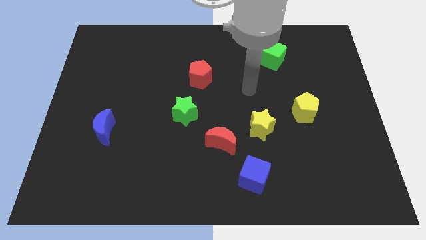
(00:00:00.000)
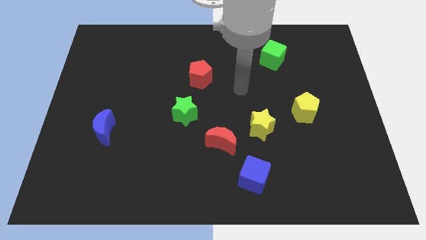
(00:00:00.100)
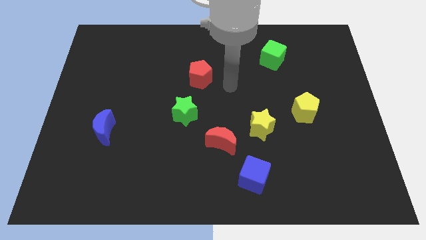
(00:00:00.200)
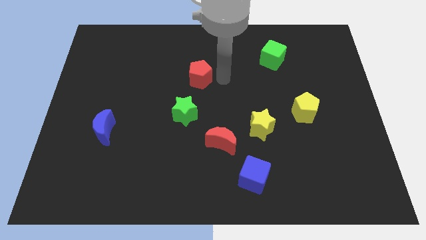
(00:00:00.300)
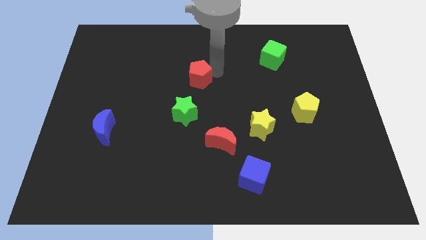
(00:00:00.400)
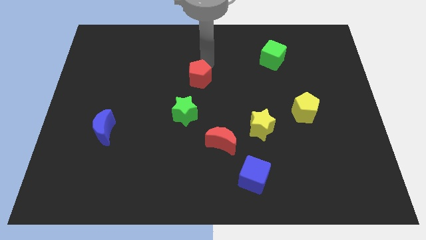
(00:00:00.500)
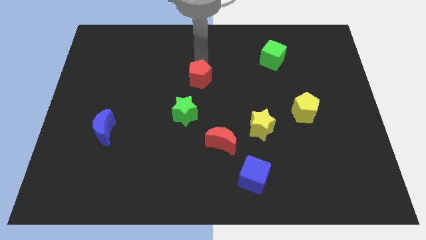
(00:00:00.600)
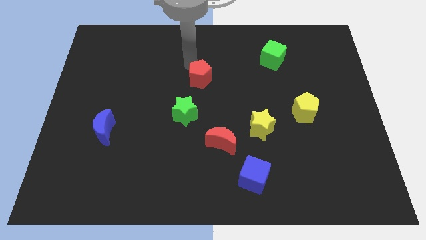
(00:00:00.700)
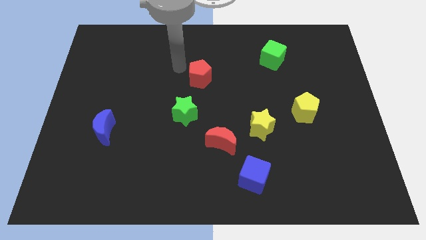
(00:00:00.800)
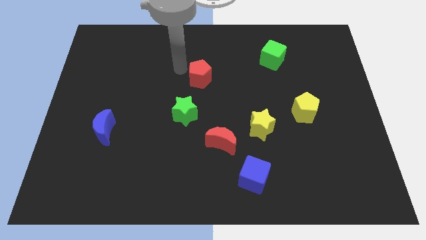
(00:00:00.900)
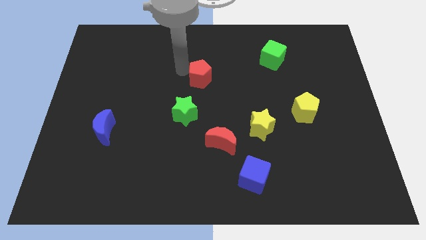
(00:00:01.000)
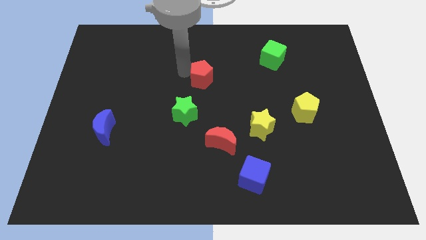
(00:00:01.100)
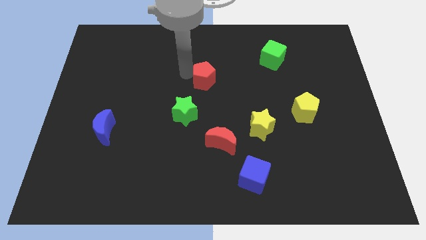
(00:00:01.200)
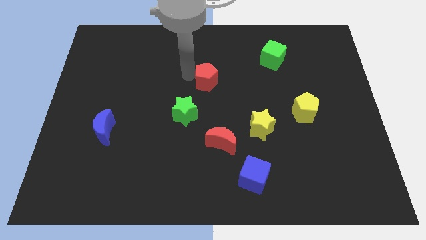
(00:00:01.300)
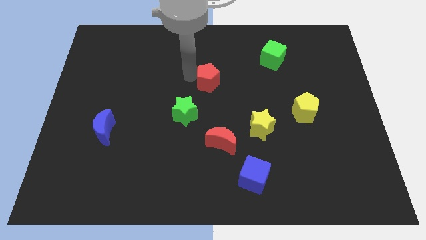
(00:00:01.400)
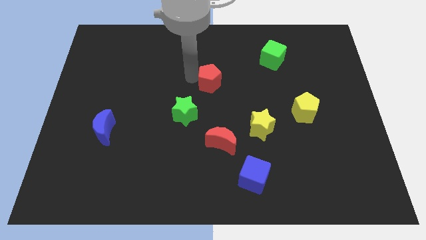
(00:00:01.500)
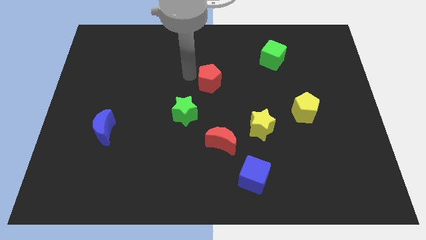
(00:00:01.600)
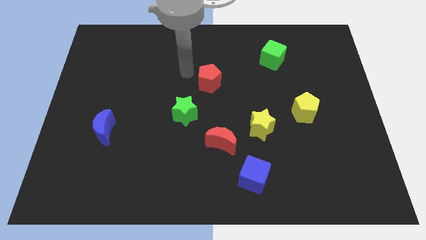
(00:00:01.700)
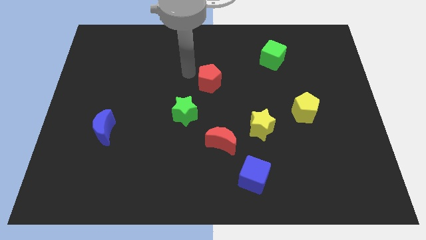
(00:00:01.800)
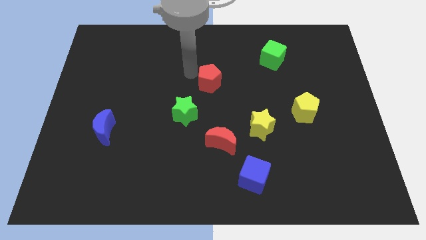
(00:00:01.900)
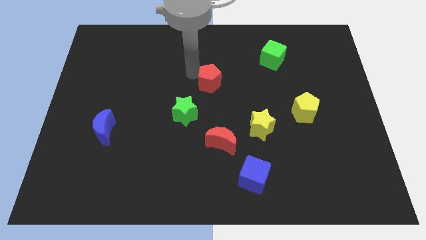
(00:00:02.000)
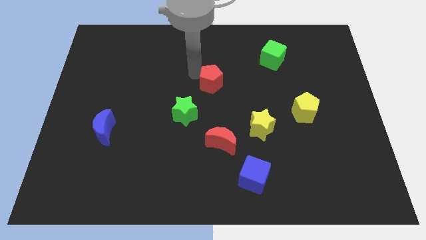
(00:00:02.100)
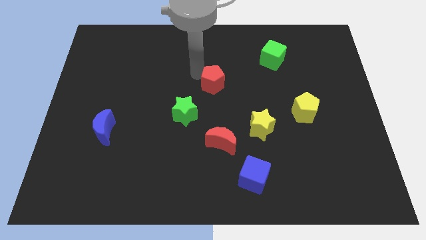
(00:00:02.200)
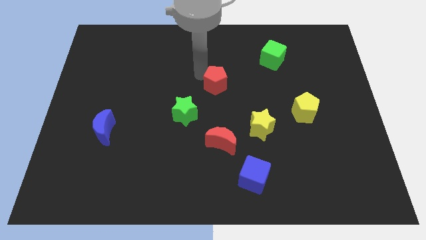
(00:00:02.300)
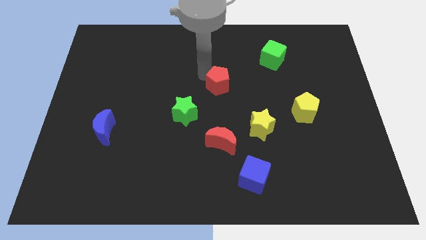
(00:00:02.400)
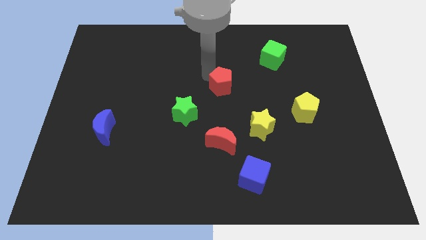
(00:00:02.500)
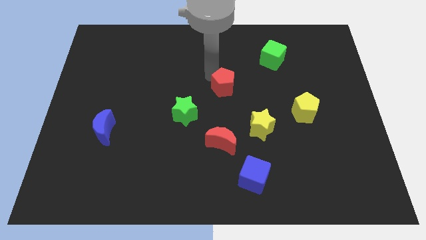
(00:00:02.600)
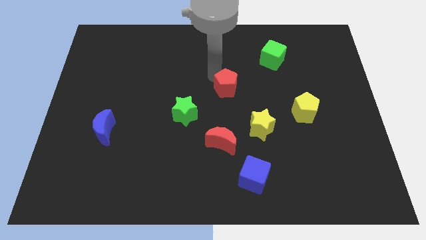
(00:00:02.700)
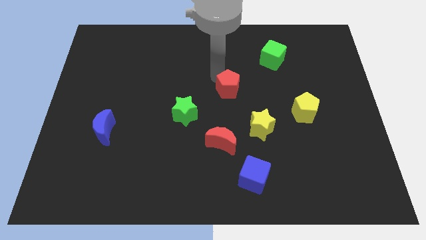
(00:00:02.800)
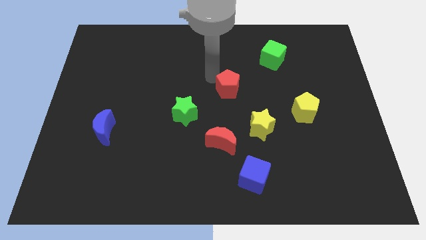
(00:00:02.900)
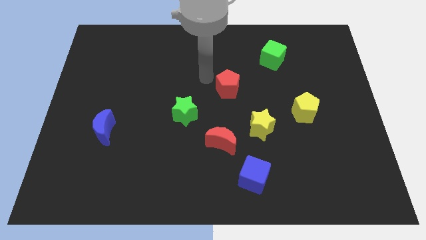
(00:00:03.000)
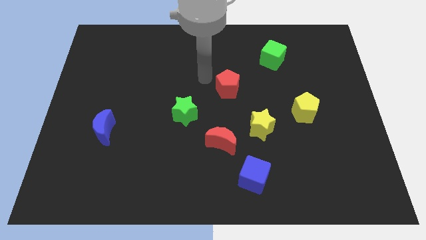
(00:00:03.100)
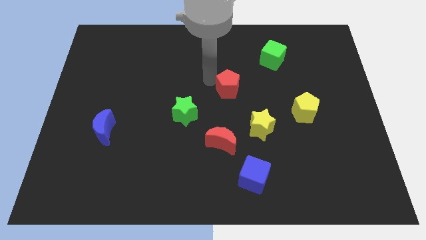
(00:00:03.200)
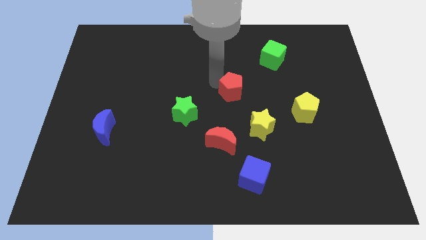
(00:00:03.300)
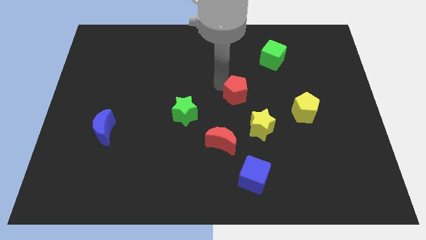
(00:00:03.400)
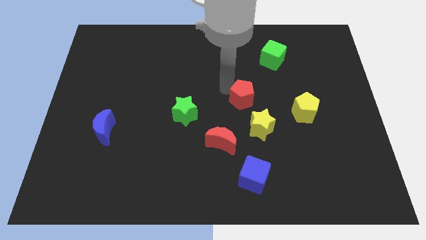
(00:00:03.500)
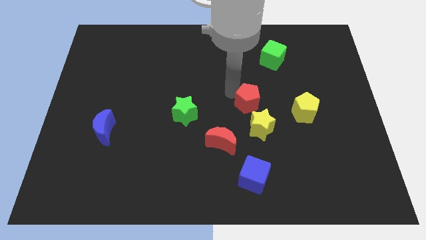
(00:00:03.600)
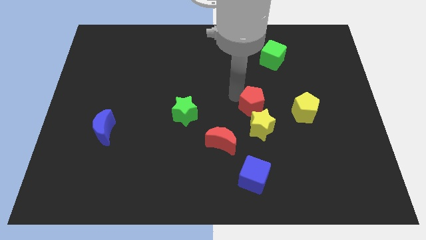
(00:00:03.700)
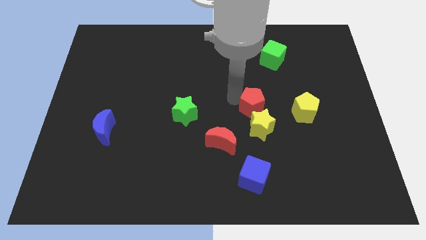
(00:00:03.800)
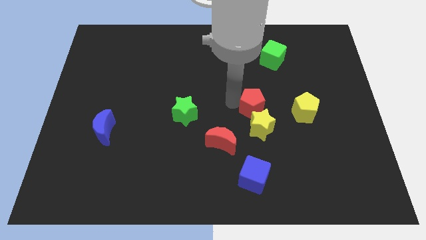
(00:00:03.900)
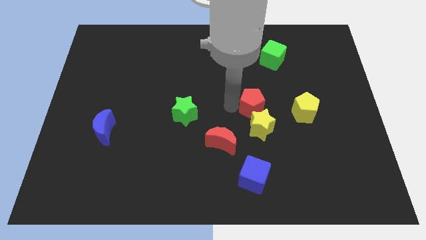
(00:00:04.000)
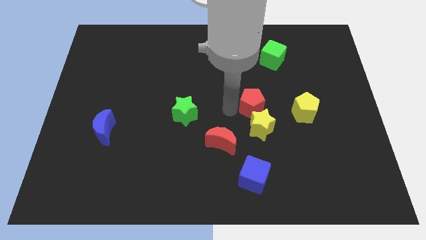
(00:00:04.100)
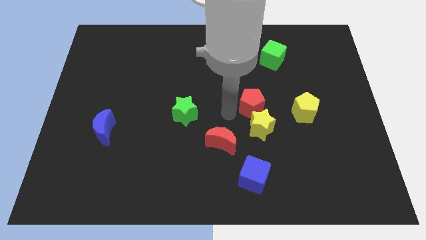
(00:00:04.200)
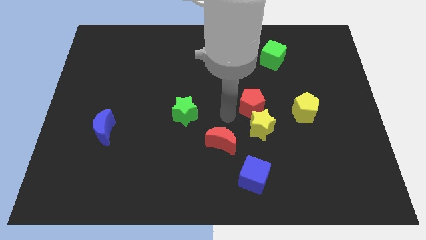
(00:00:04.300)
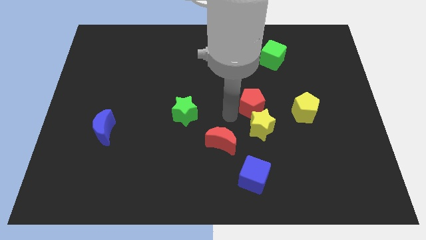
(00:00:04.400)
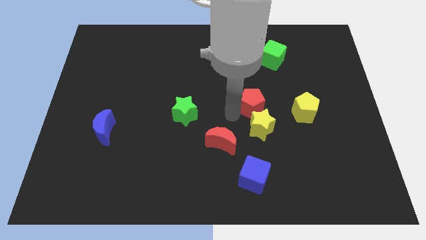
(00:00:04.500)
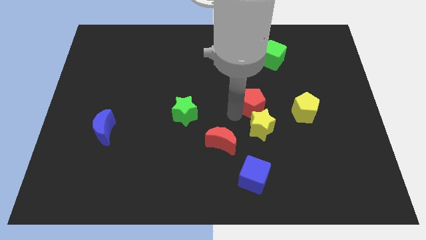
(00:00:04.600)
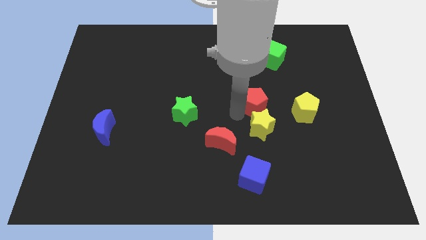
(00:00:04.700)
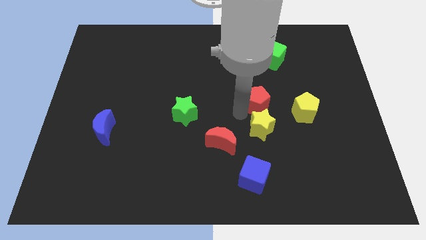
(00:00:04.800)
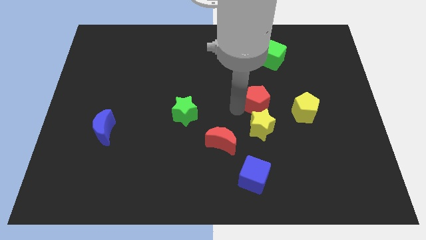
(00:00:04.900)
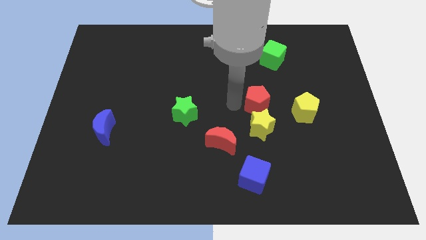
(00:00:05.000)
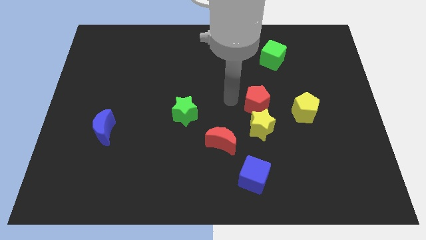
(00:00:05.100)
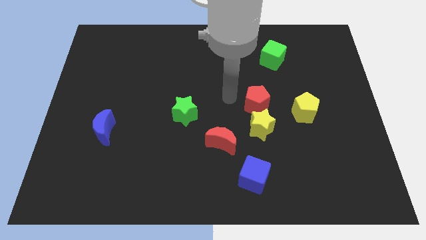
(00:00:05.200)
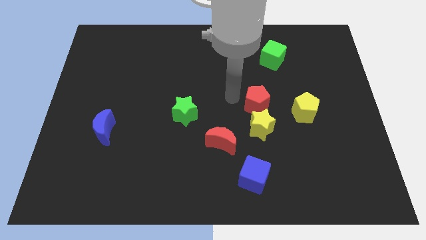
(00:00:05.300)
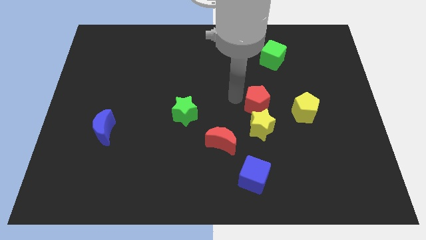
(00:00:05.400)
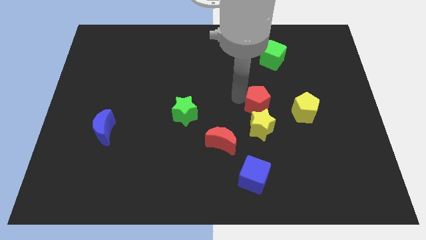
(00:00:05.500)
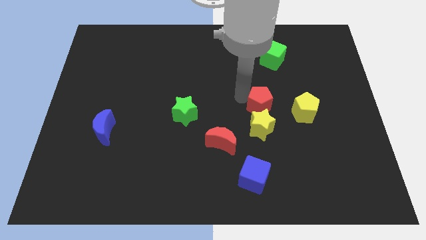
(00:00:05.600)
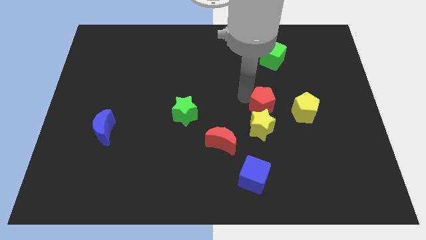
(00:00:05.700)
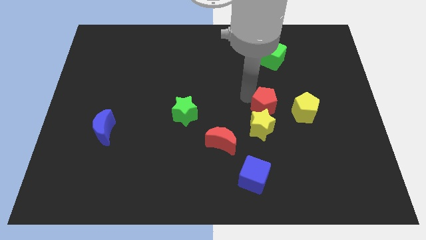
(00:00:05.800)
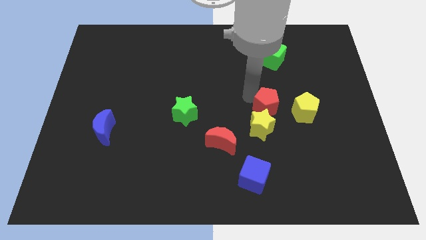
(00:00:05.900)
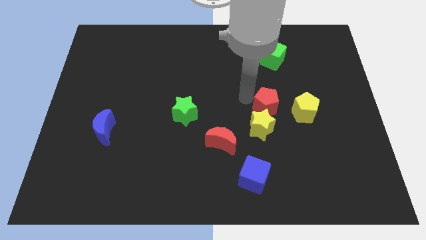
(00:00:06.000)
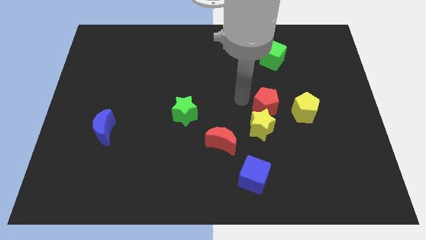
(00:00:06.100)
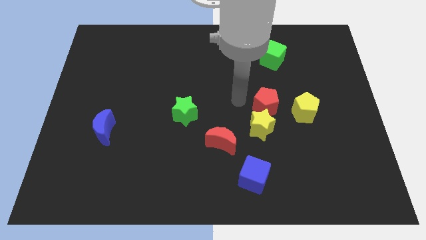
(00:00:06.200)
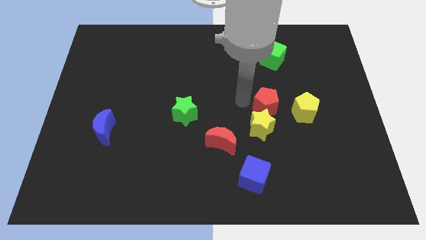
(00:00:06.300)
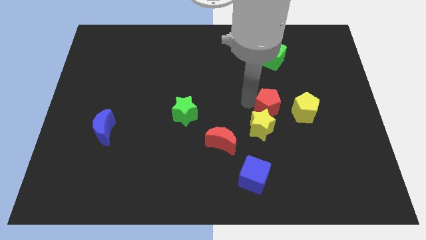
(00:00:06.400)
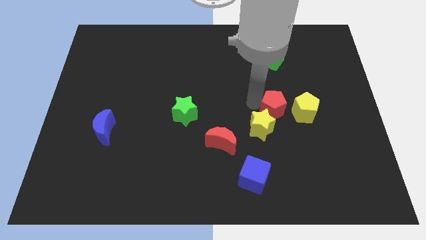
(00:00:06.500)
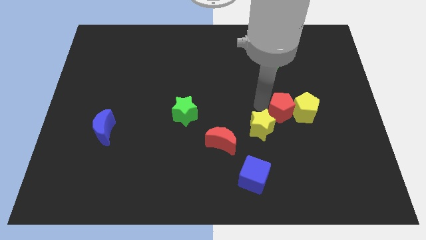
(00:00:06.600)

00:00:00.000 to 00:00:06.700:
push the red pentagon close to the yellow pentagon
